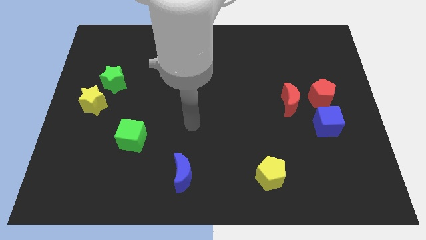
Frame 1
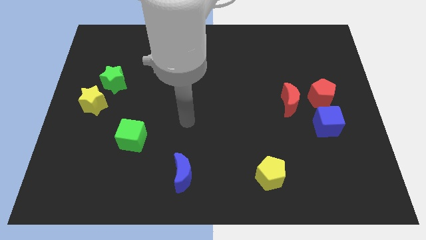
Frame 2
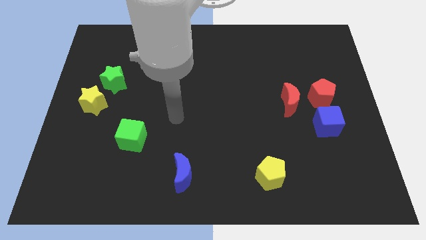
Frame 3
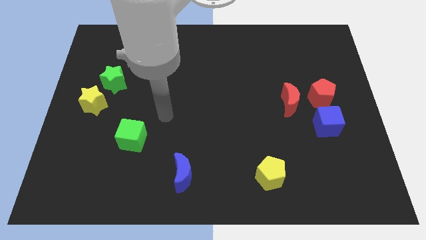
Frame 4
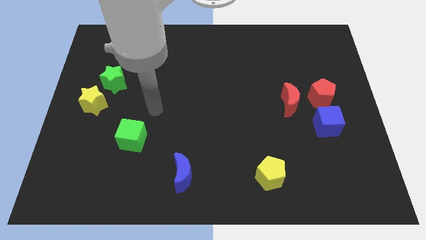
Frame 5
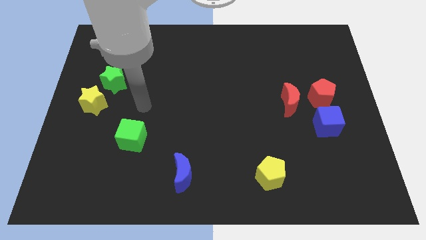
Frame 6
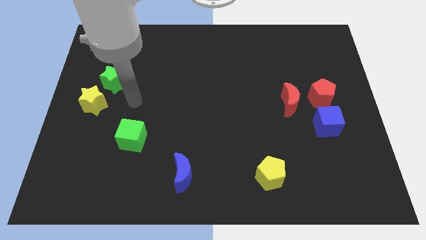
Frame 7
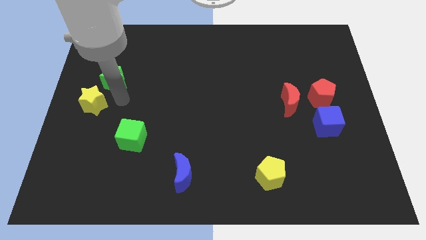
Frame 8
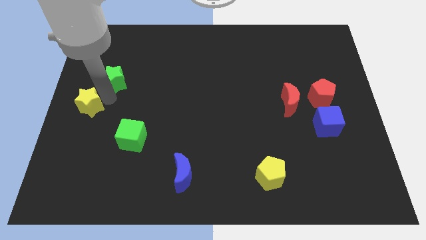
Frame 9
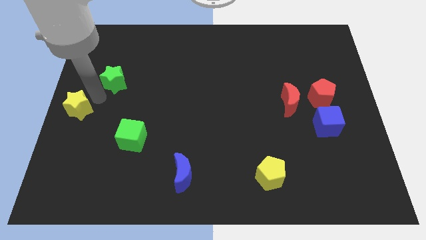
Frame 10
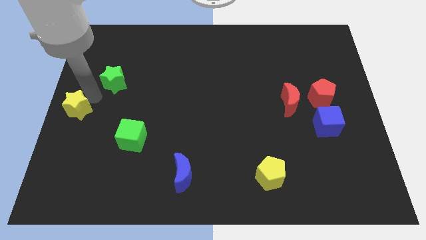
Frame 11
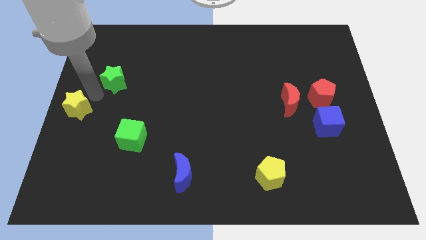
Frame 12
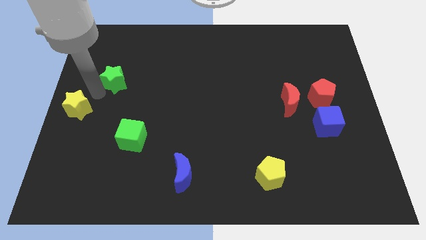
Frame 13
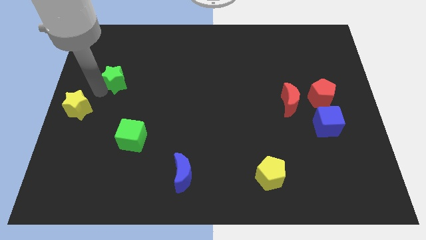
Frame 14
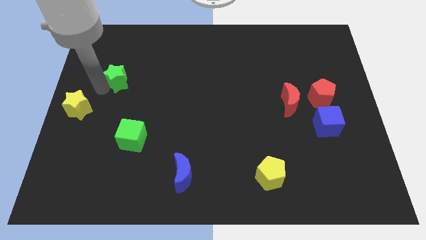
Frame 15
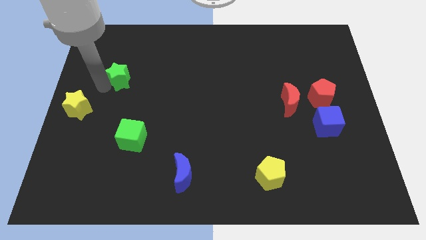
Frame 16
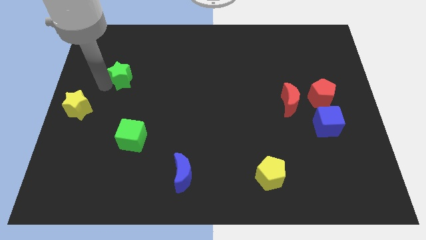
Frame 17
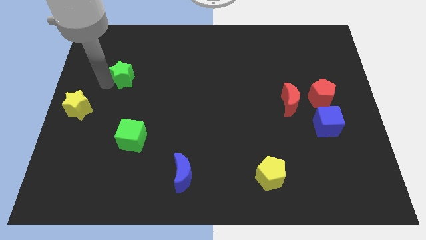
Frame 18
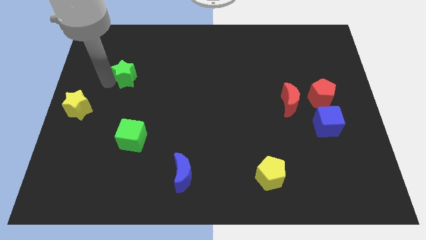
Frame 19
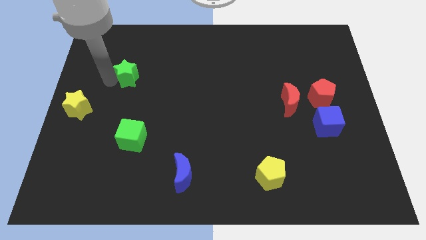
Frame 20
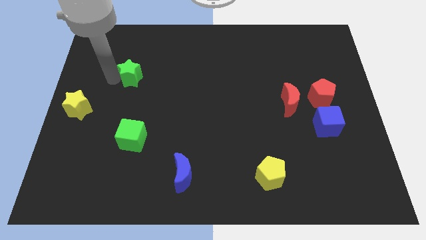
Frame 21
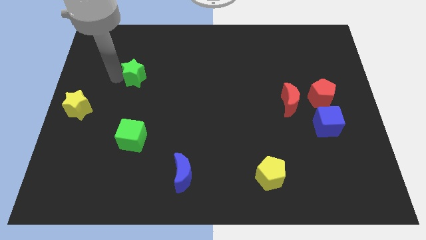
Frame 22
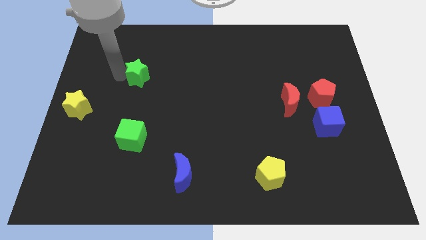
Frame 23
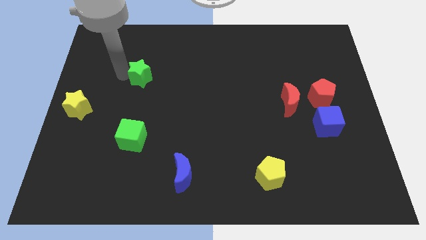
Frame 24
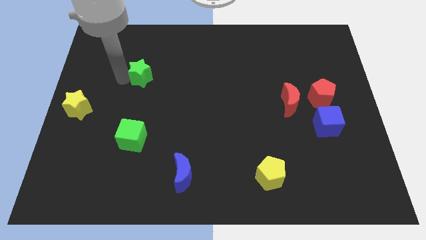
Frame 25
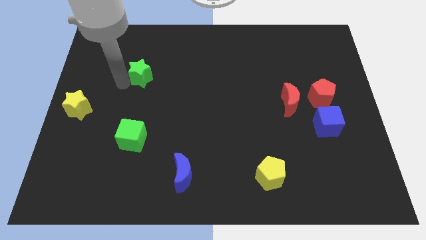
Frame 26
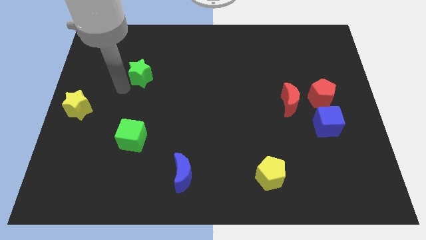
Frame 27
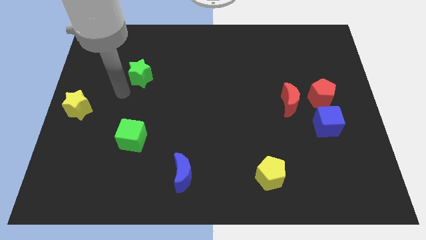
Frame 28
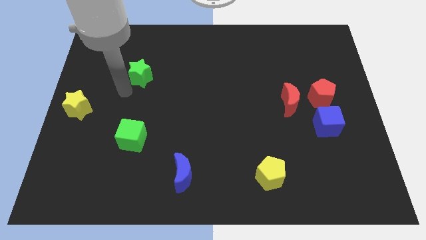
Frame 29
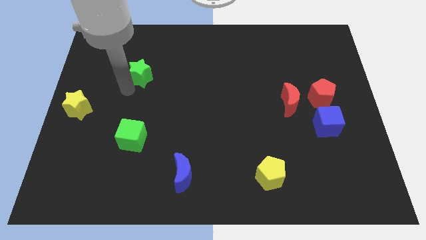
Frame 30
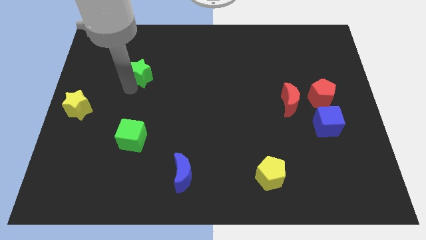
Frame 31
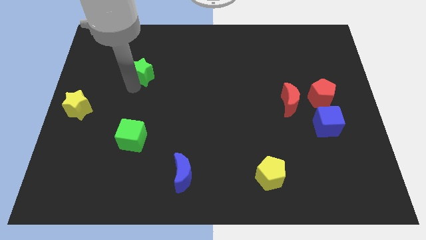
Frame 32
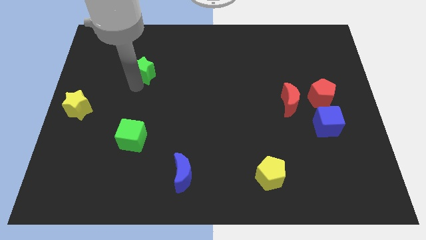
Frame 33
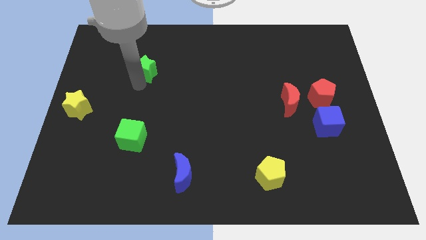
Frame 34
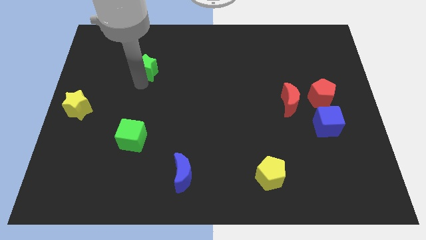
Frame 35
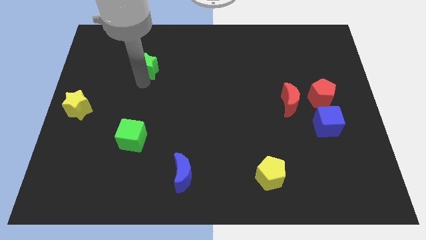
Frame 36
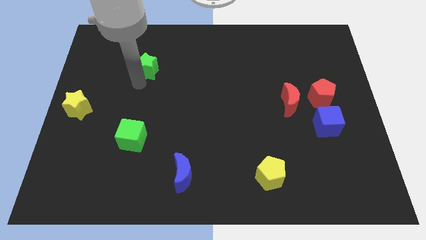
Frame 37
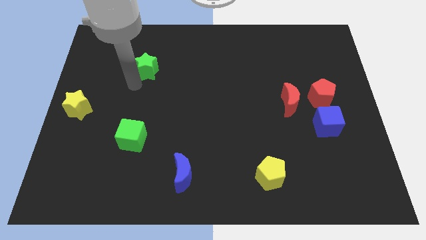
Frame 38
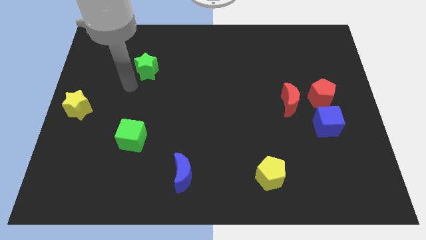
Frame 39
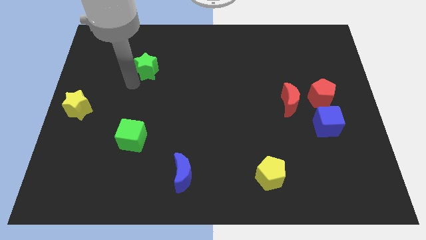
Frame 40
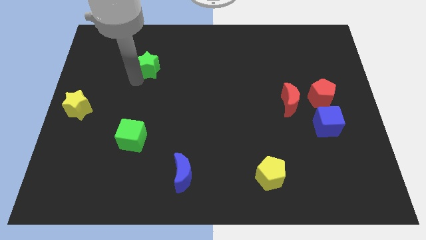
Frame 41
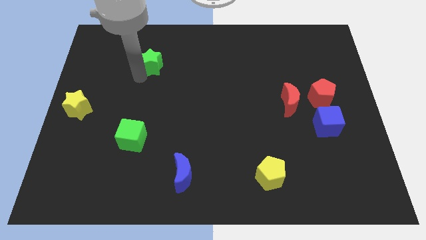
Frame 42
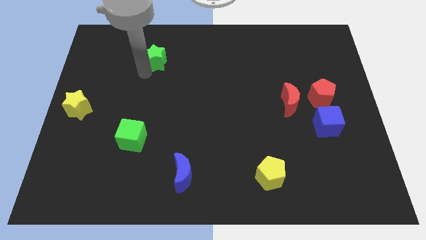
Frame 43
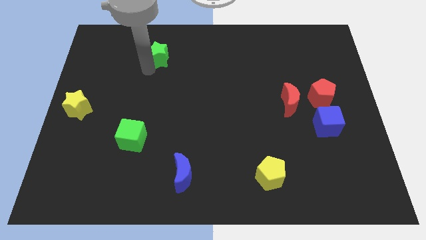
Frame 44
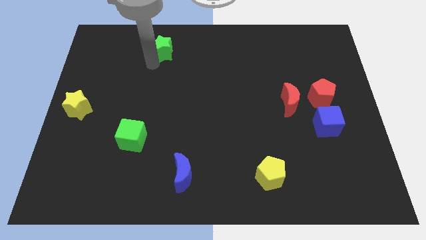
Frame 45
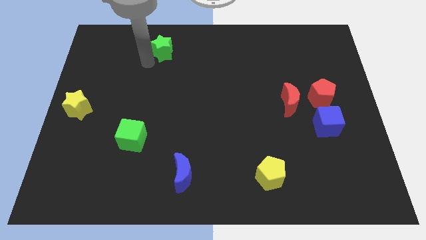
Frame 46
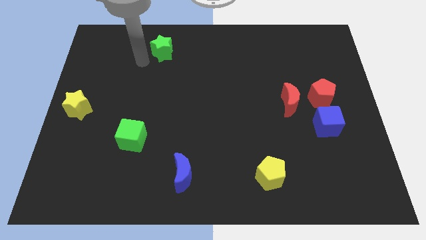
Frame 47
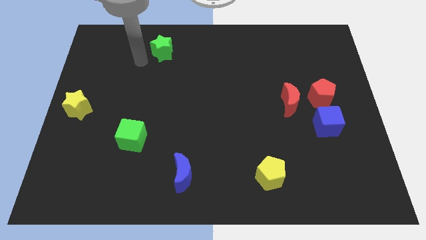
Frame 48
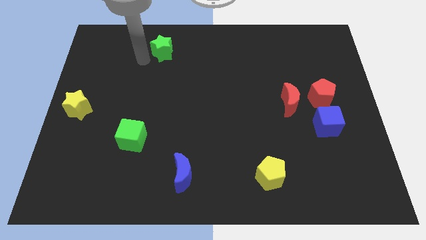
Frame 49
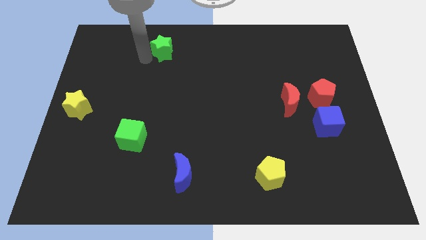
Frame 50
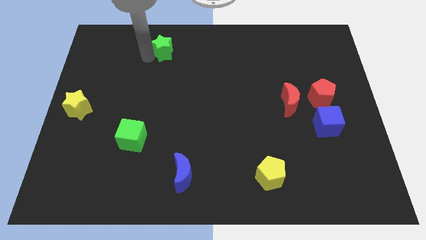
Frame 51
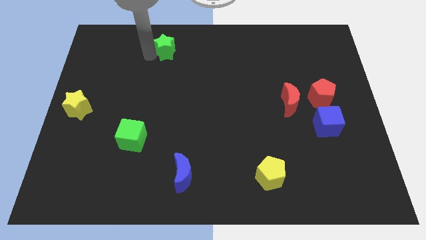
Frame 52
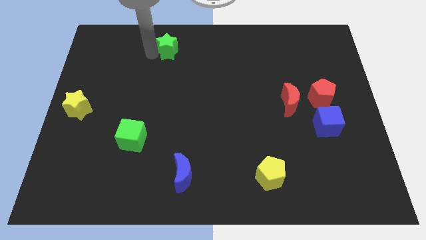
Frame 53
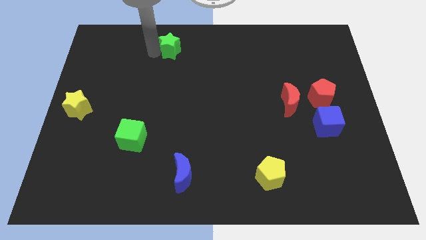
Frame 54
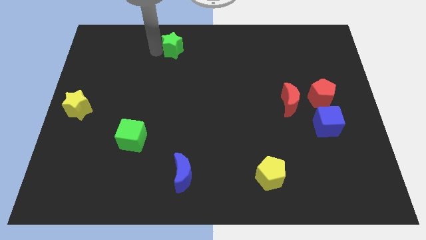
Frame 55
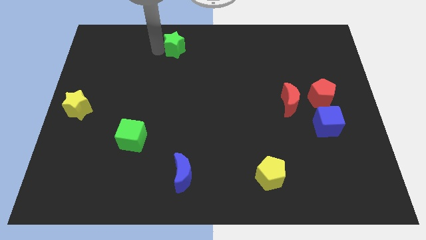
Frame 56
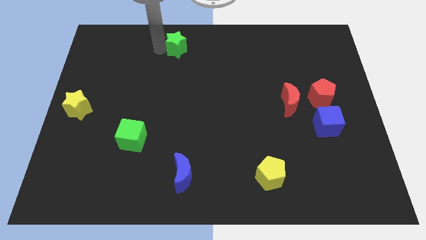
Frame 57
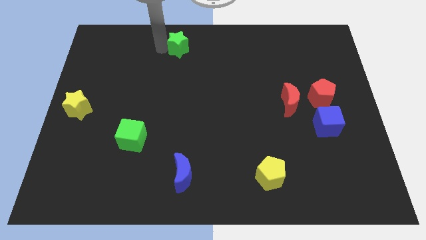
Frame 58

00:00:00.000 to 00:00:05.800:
push the green star to the top

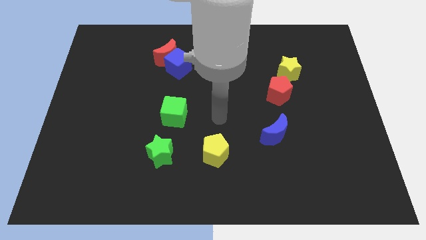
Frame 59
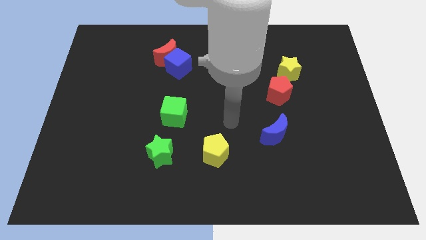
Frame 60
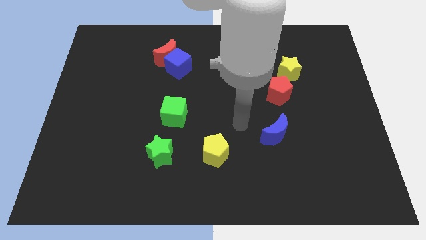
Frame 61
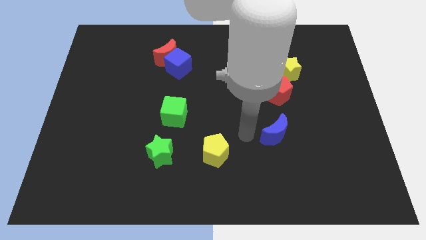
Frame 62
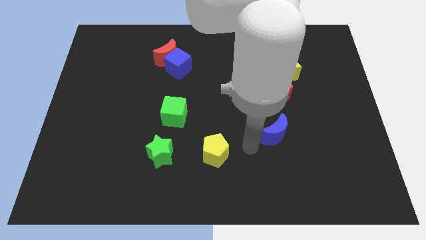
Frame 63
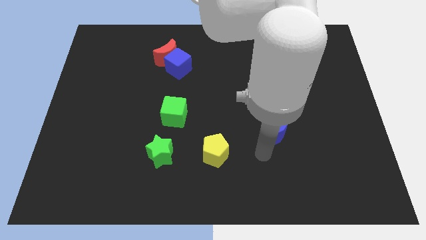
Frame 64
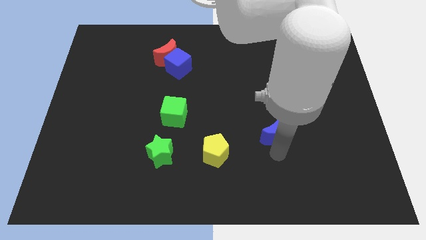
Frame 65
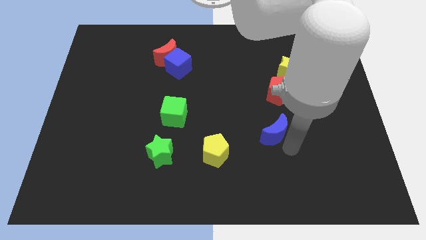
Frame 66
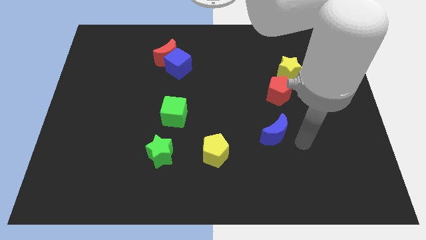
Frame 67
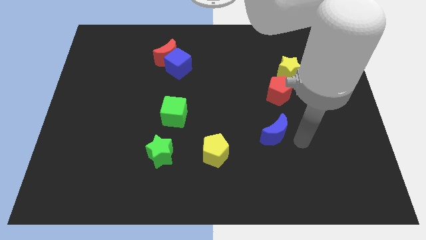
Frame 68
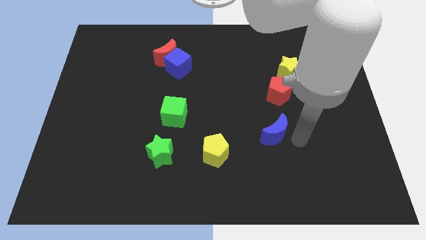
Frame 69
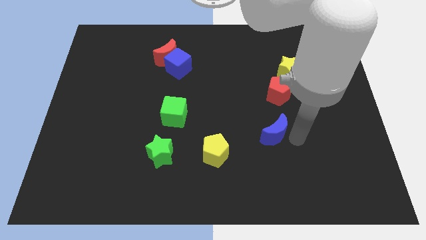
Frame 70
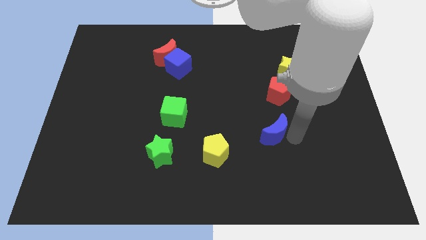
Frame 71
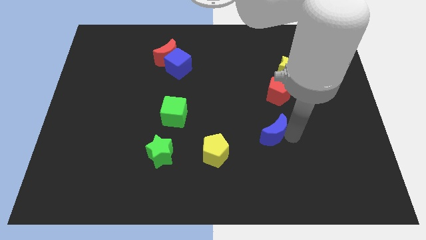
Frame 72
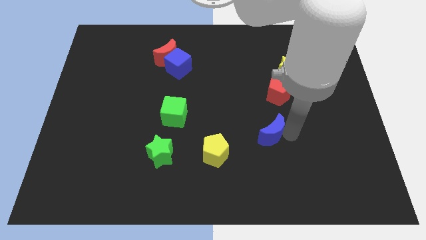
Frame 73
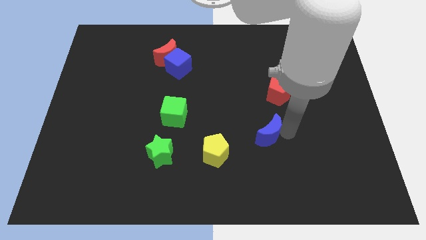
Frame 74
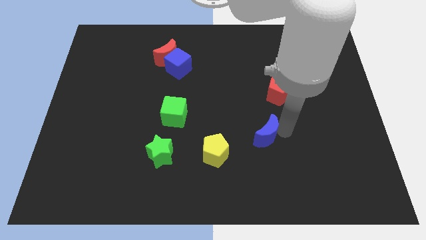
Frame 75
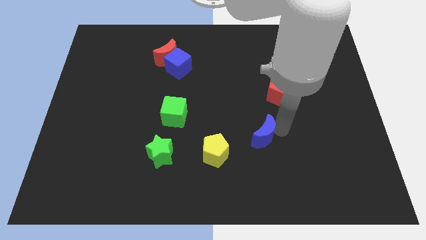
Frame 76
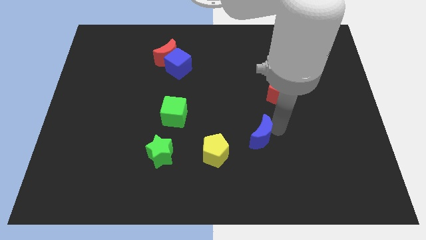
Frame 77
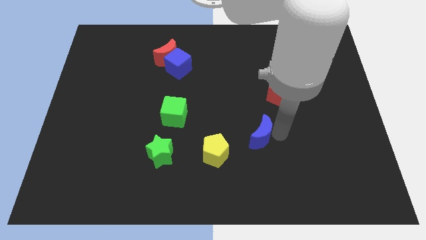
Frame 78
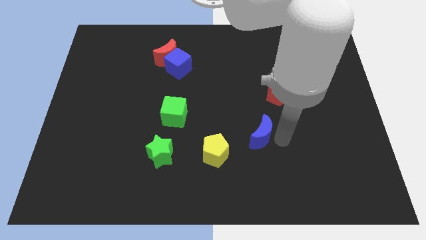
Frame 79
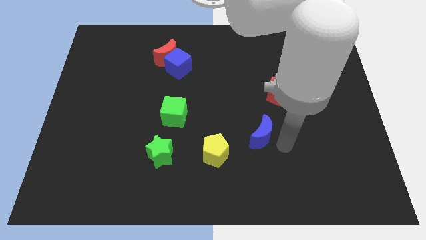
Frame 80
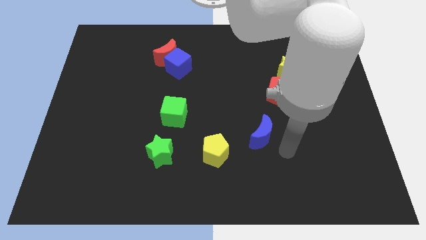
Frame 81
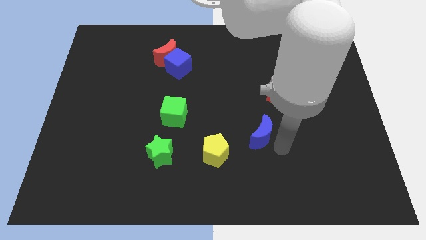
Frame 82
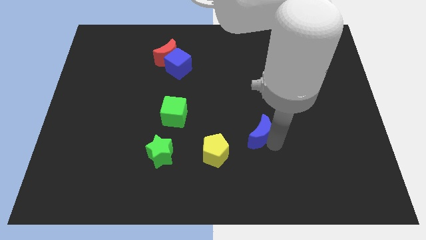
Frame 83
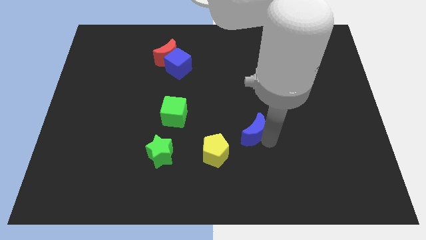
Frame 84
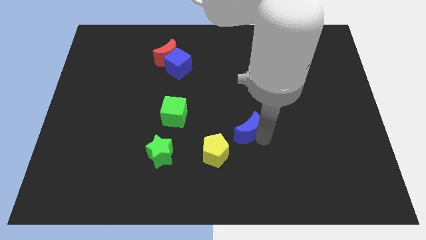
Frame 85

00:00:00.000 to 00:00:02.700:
push the blue moon to the middle
